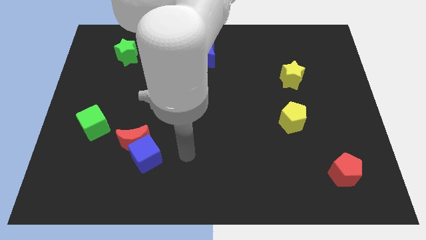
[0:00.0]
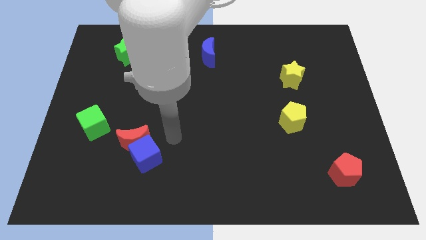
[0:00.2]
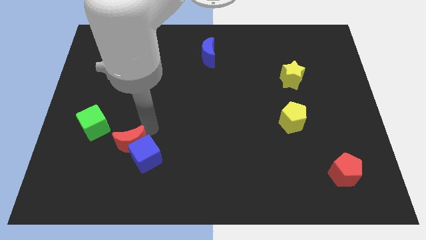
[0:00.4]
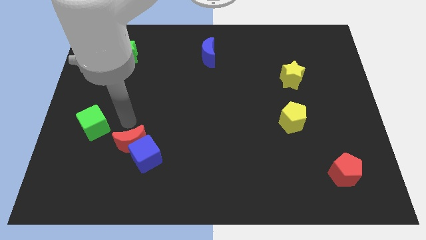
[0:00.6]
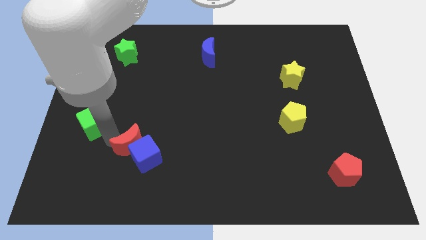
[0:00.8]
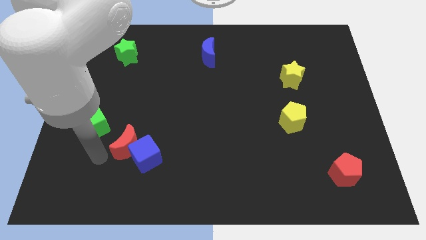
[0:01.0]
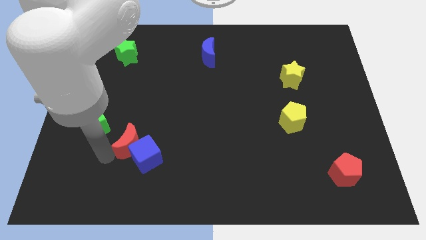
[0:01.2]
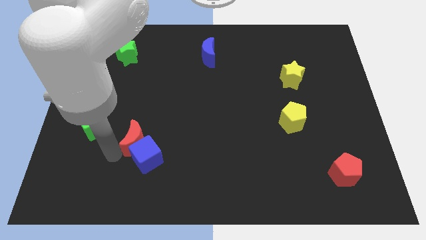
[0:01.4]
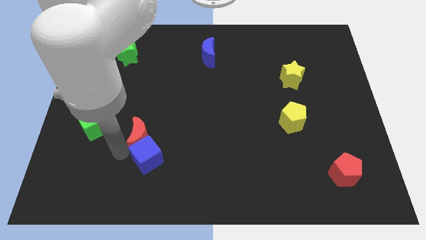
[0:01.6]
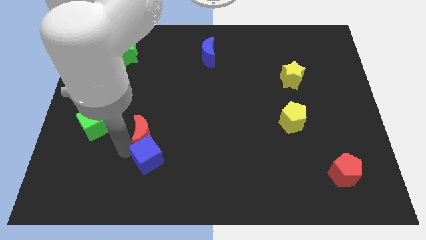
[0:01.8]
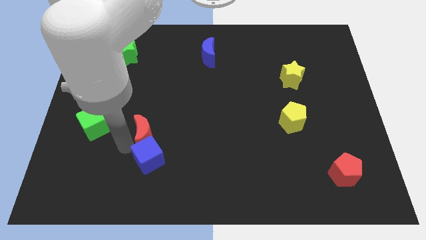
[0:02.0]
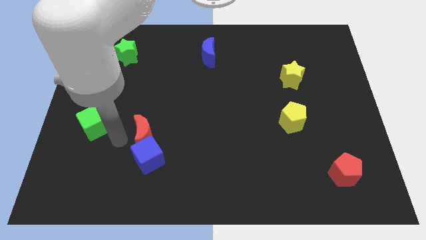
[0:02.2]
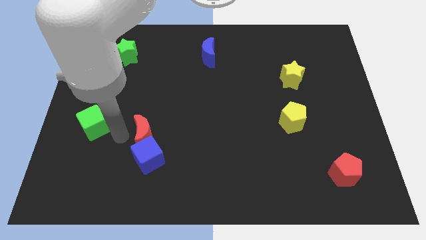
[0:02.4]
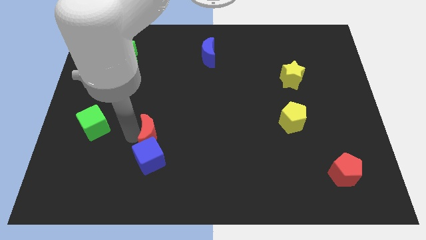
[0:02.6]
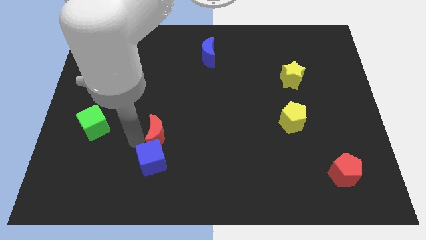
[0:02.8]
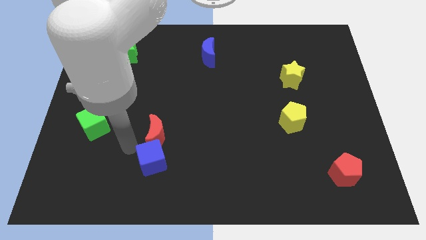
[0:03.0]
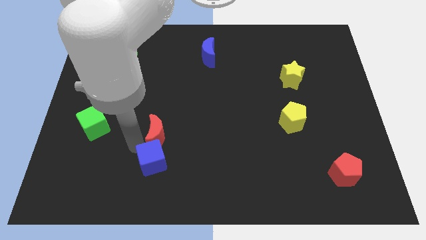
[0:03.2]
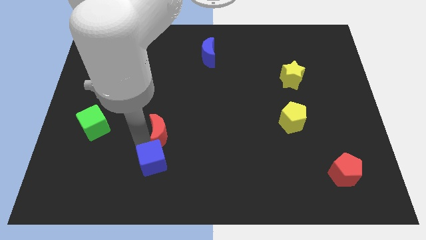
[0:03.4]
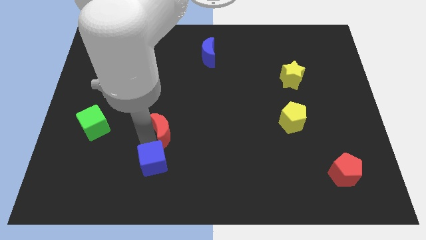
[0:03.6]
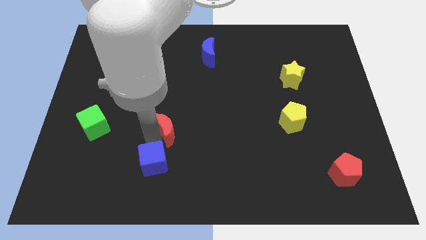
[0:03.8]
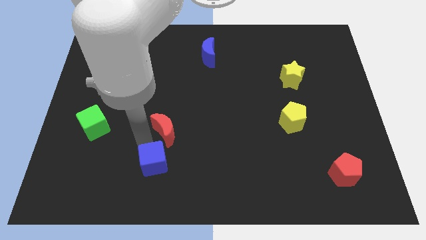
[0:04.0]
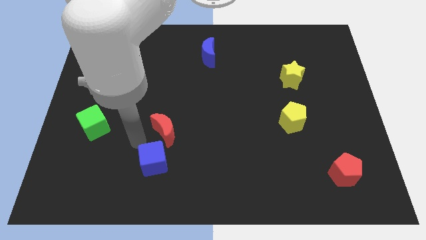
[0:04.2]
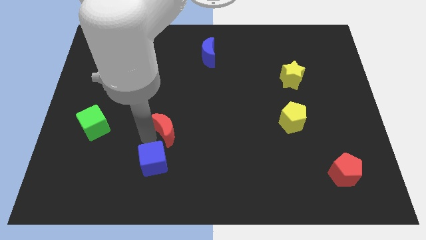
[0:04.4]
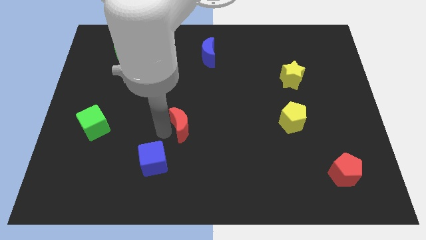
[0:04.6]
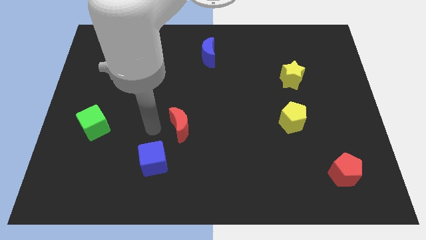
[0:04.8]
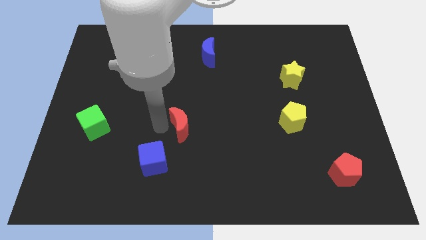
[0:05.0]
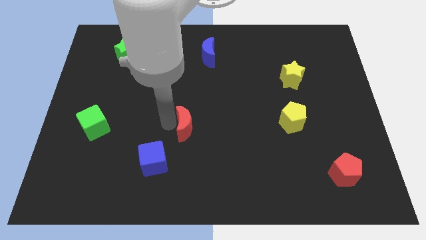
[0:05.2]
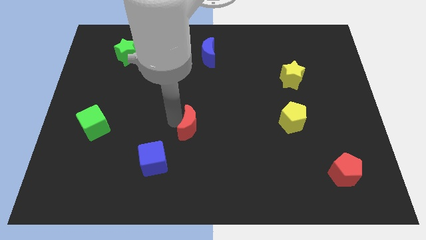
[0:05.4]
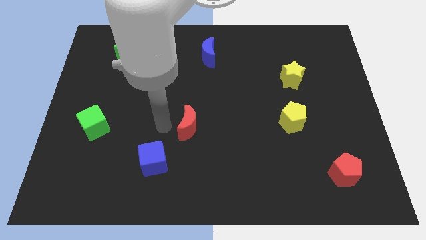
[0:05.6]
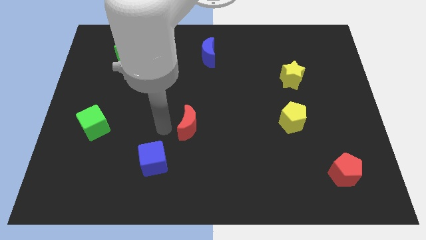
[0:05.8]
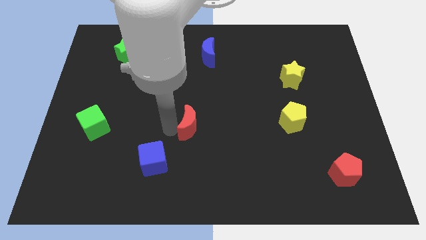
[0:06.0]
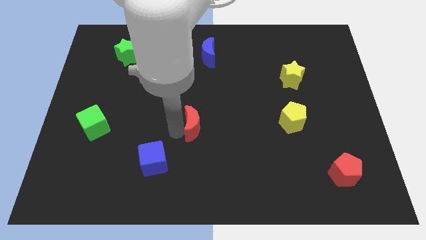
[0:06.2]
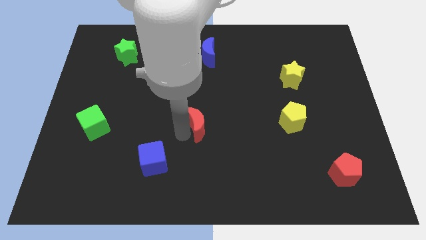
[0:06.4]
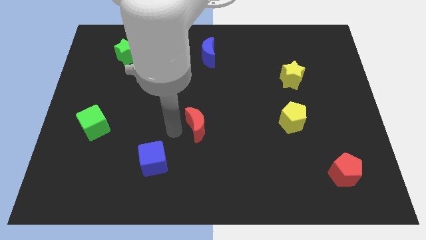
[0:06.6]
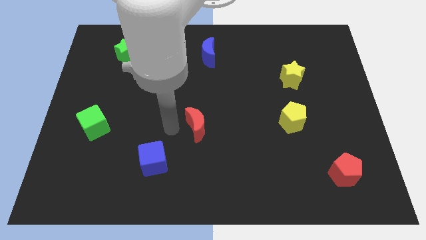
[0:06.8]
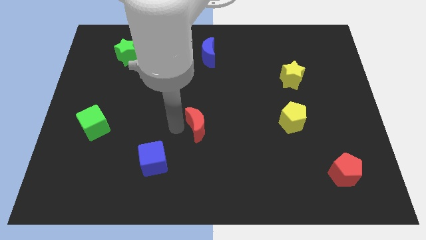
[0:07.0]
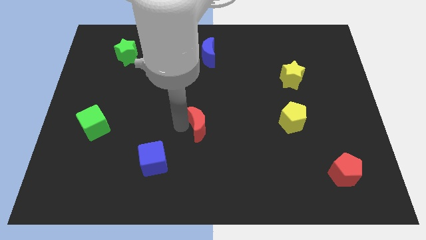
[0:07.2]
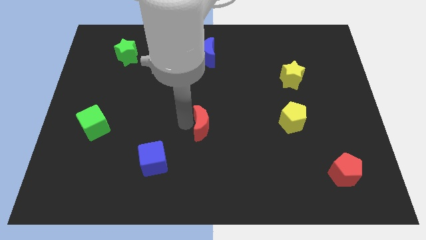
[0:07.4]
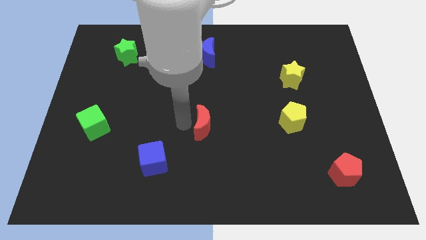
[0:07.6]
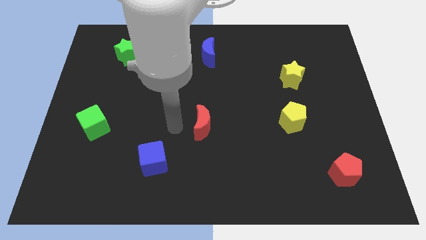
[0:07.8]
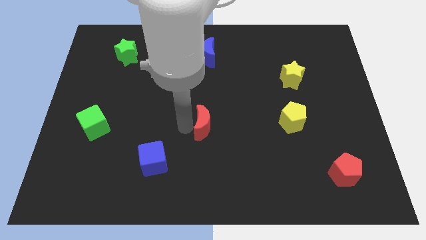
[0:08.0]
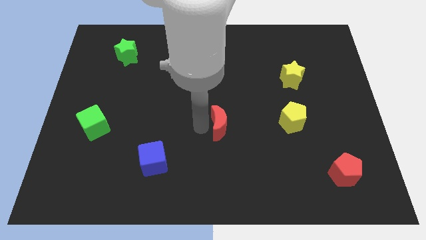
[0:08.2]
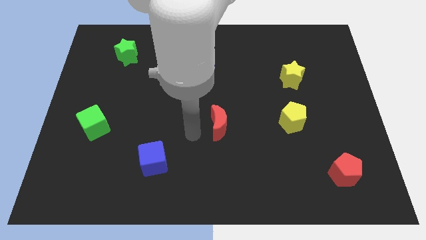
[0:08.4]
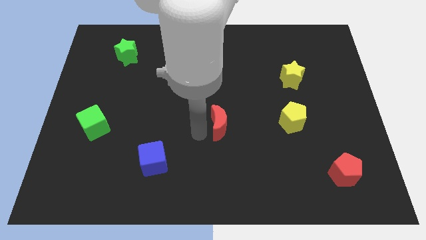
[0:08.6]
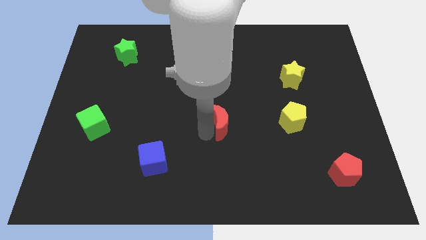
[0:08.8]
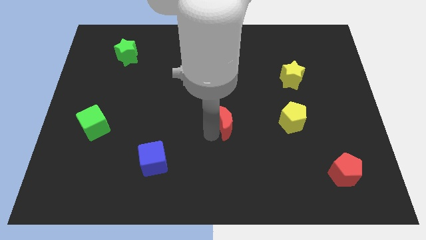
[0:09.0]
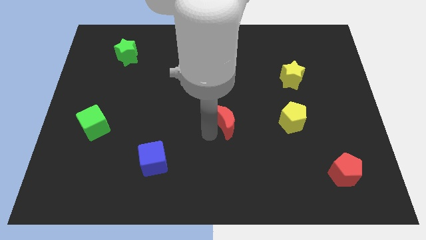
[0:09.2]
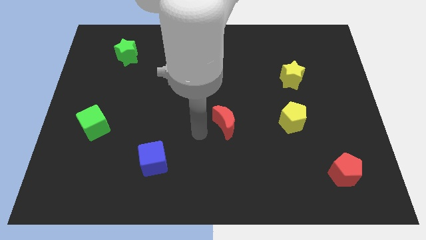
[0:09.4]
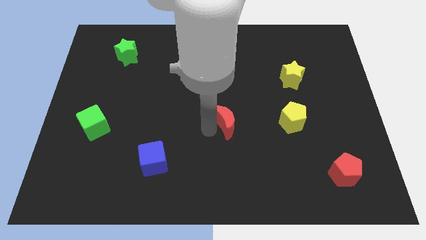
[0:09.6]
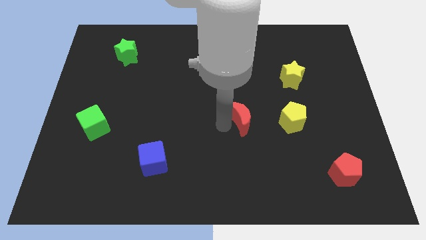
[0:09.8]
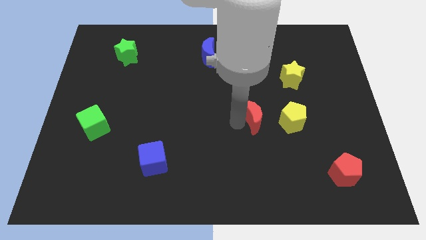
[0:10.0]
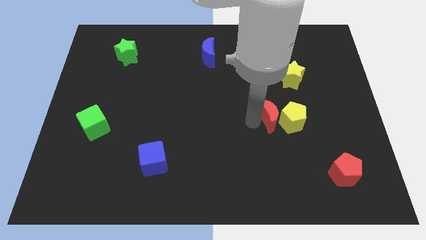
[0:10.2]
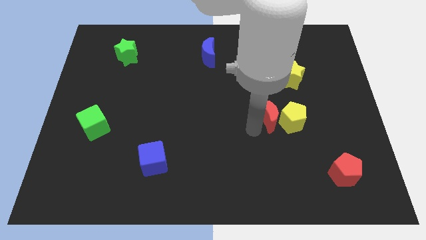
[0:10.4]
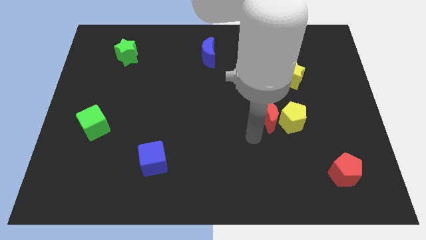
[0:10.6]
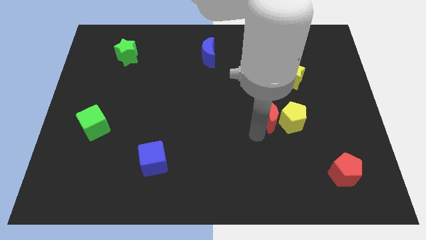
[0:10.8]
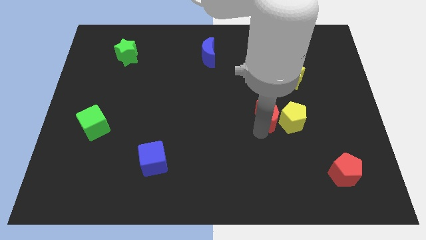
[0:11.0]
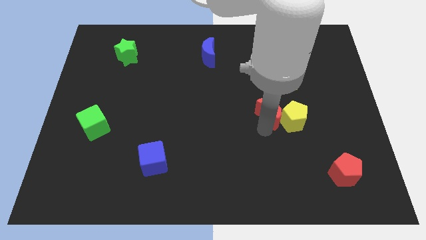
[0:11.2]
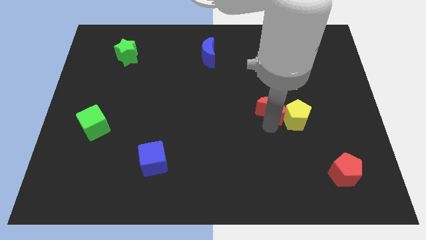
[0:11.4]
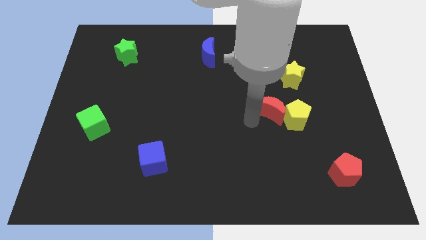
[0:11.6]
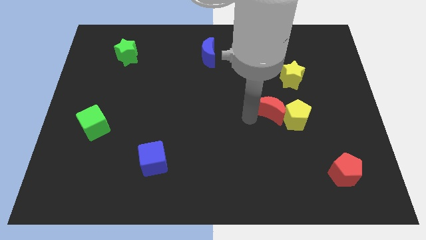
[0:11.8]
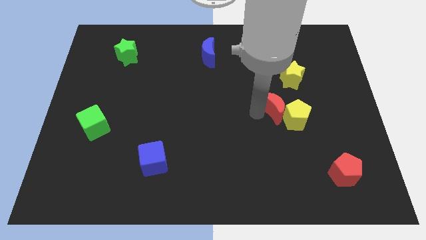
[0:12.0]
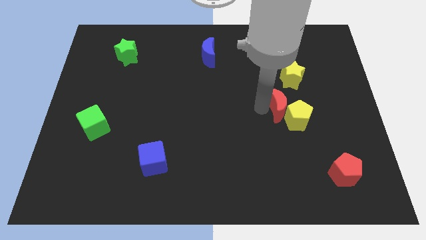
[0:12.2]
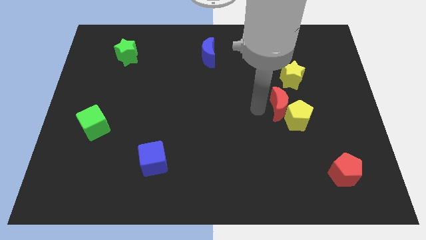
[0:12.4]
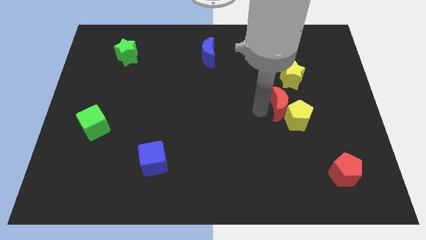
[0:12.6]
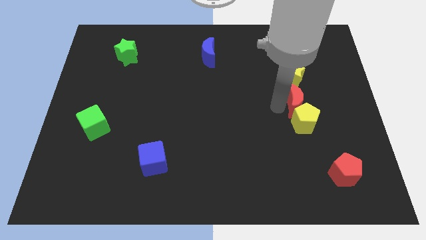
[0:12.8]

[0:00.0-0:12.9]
push the red moon to the top right of the yellow pentagon
